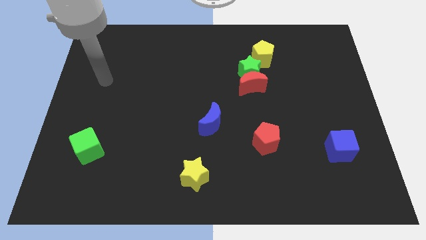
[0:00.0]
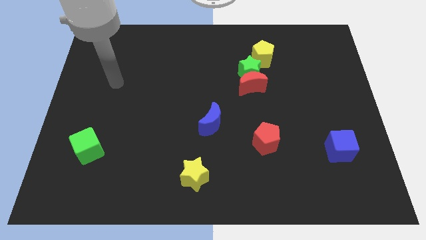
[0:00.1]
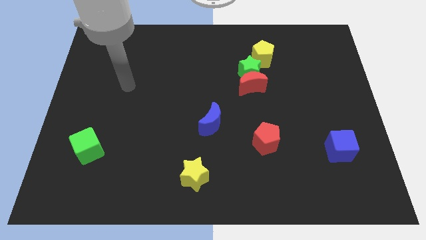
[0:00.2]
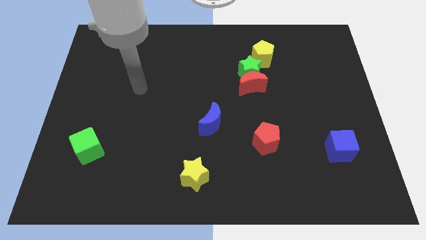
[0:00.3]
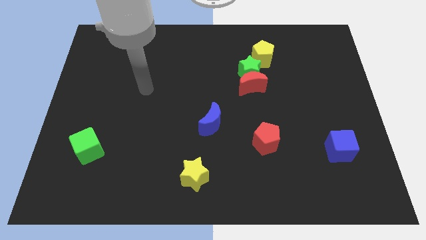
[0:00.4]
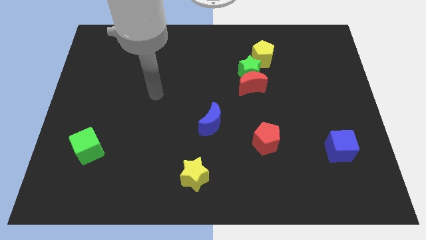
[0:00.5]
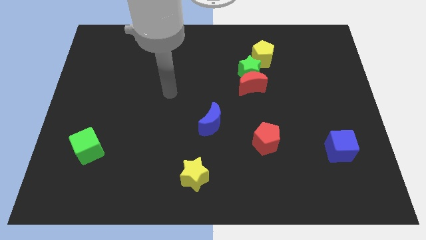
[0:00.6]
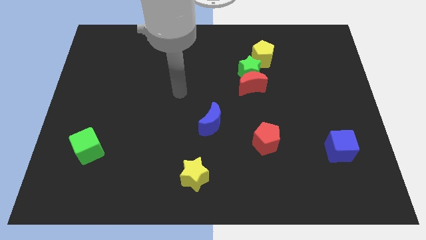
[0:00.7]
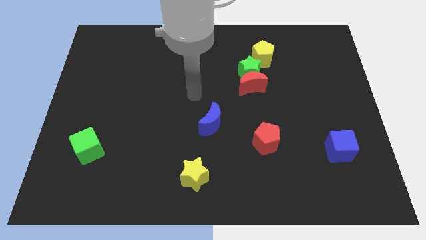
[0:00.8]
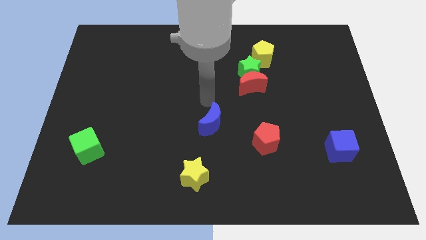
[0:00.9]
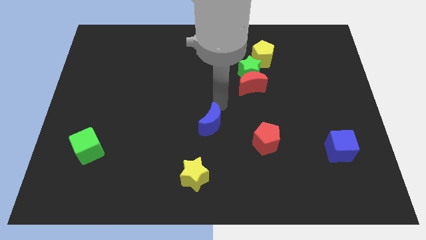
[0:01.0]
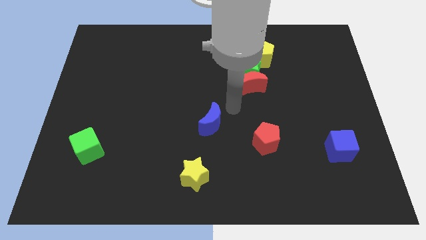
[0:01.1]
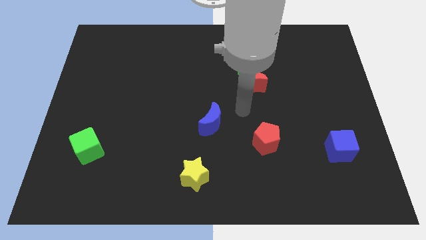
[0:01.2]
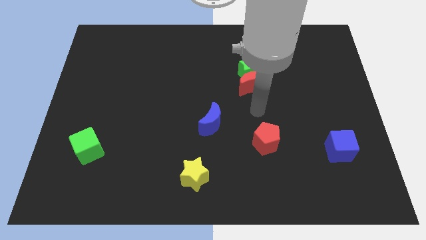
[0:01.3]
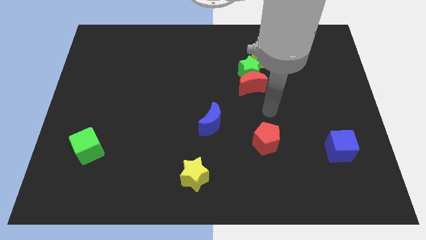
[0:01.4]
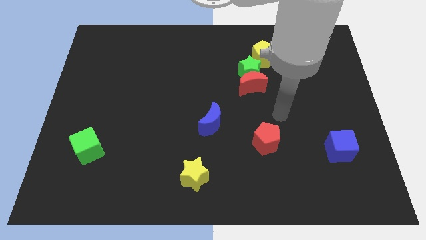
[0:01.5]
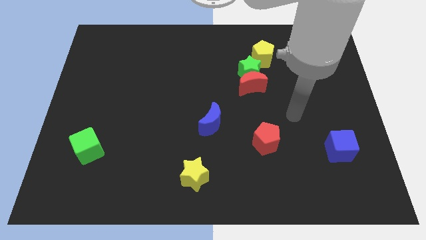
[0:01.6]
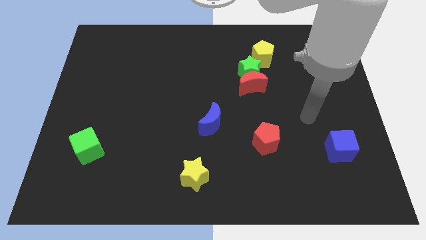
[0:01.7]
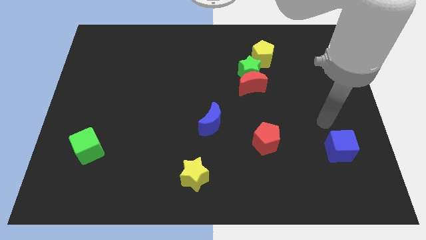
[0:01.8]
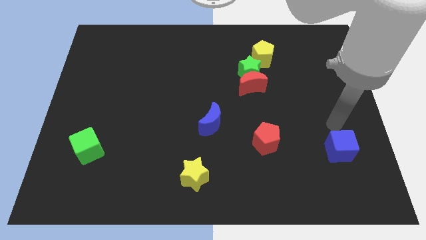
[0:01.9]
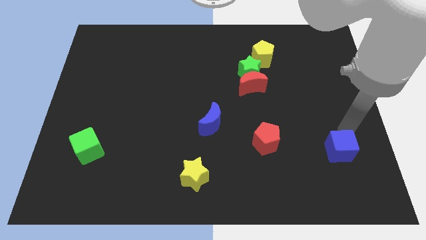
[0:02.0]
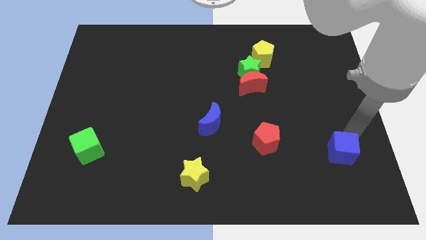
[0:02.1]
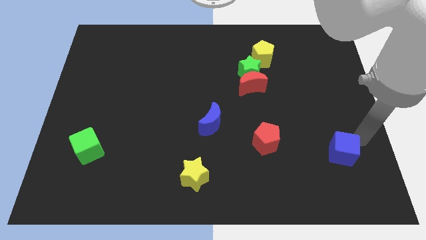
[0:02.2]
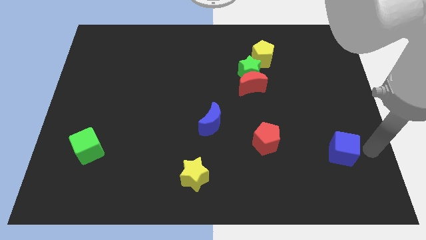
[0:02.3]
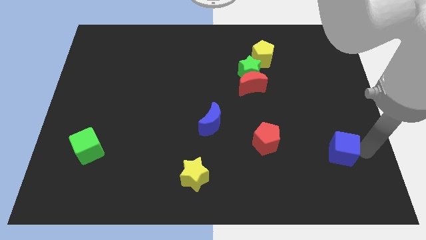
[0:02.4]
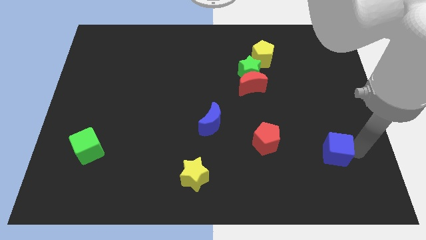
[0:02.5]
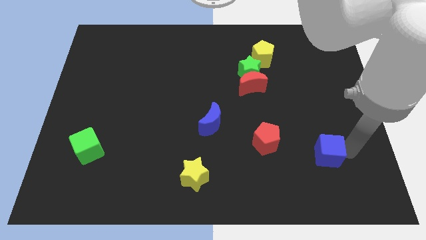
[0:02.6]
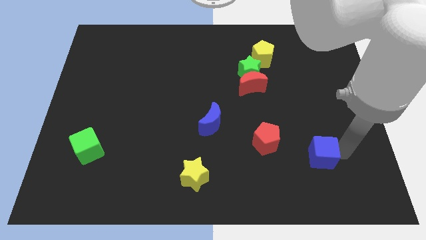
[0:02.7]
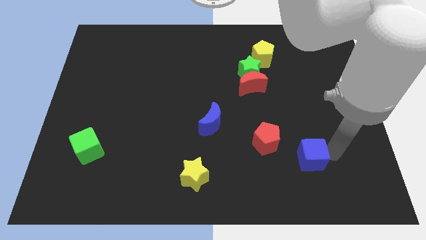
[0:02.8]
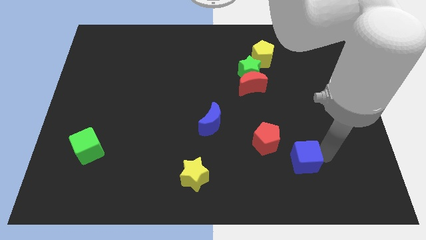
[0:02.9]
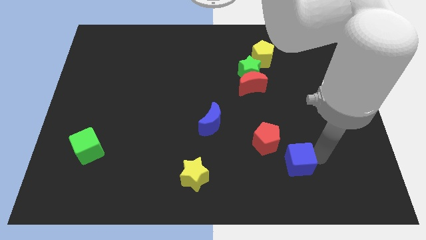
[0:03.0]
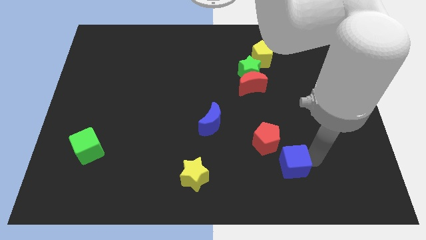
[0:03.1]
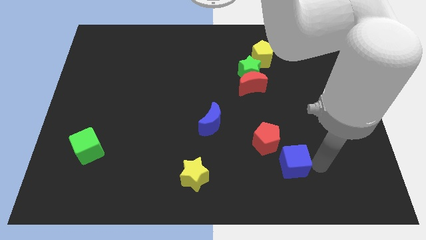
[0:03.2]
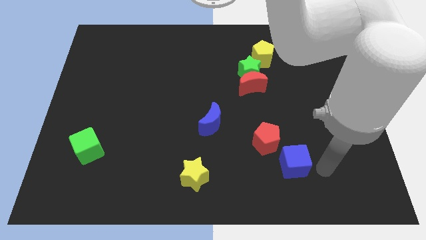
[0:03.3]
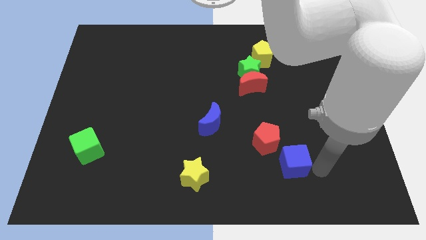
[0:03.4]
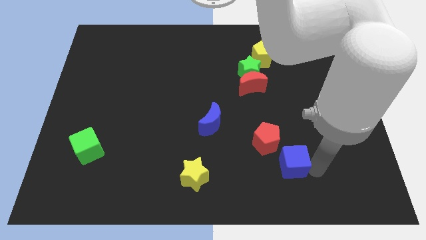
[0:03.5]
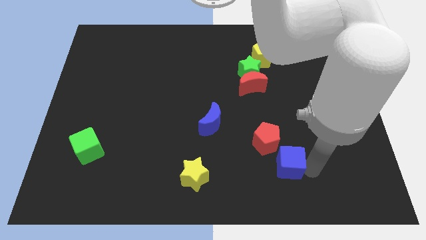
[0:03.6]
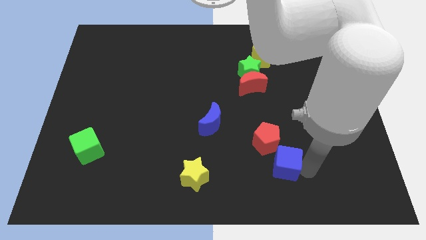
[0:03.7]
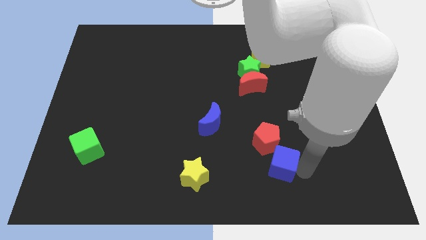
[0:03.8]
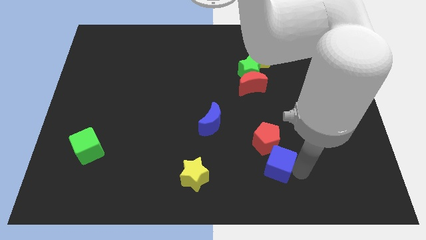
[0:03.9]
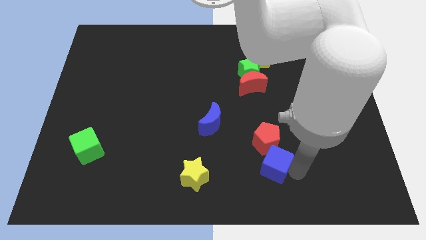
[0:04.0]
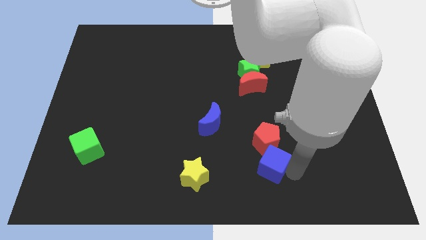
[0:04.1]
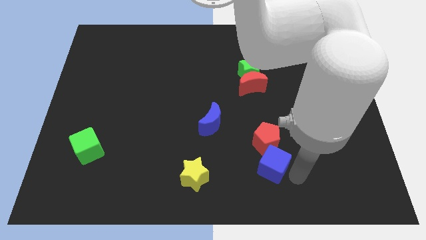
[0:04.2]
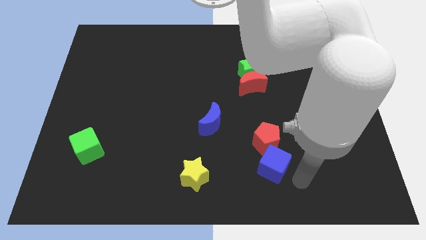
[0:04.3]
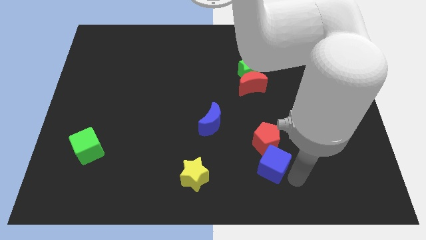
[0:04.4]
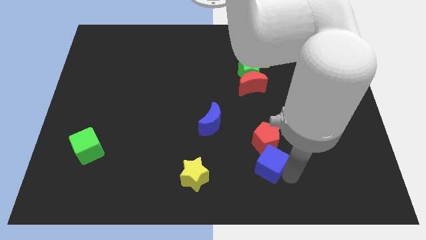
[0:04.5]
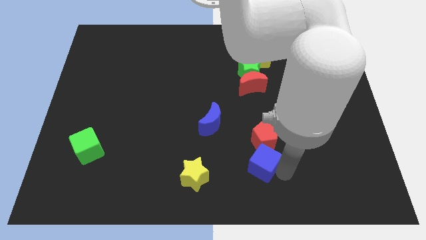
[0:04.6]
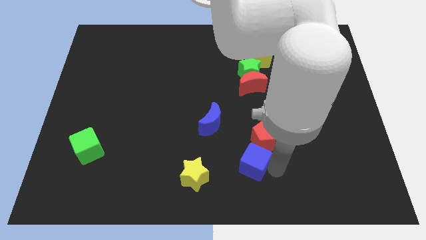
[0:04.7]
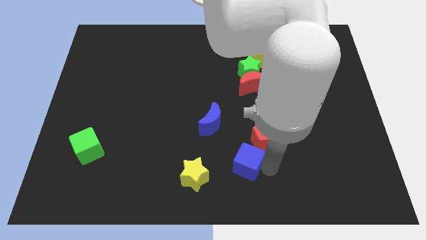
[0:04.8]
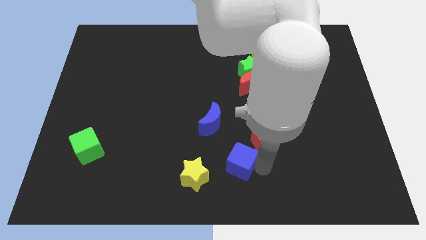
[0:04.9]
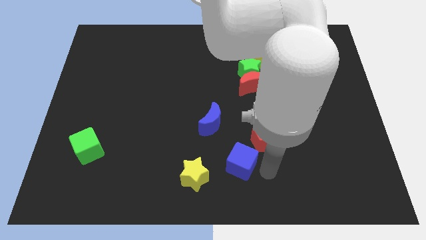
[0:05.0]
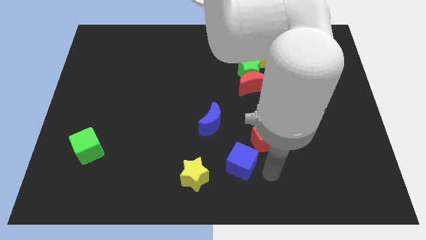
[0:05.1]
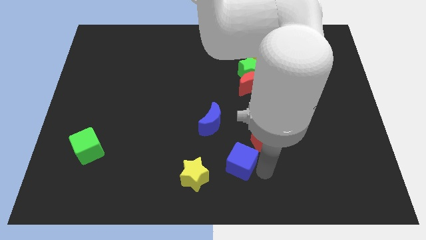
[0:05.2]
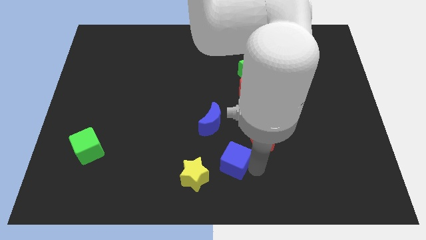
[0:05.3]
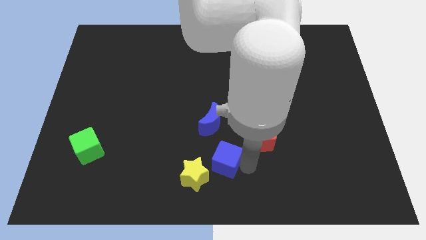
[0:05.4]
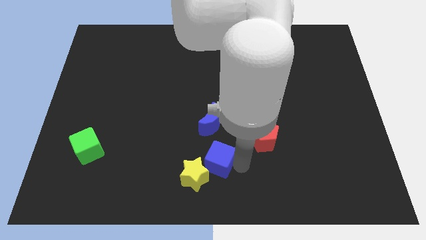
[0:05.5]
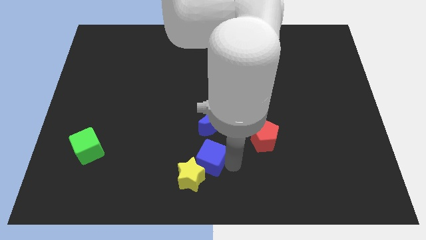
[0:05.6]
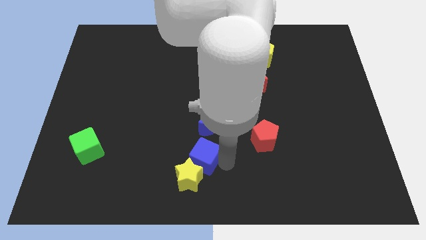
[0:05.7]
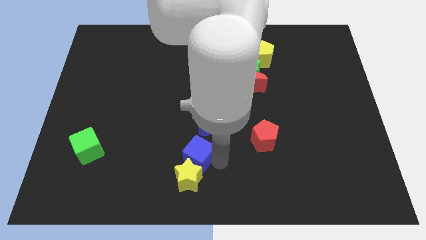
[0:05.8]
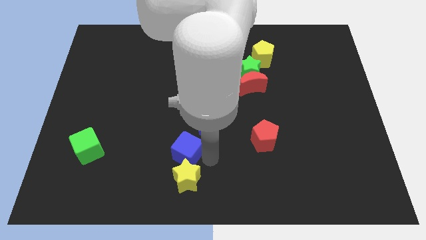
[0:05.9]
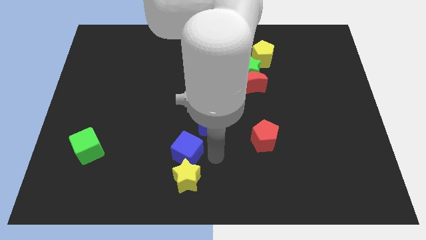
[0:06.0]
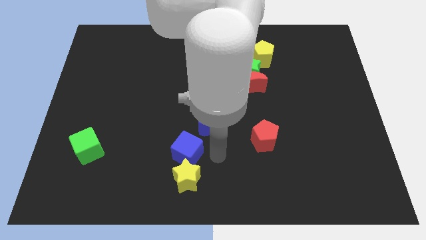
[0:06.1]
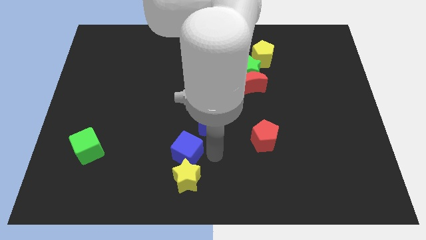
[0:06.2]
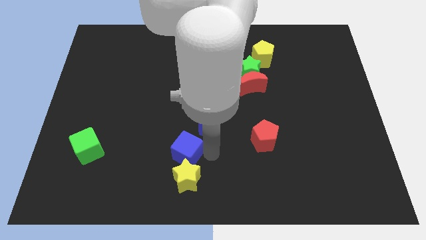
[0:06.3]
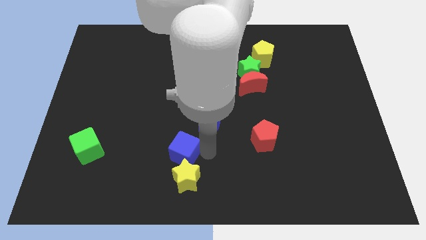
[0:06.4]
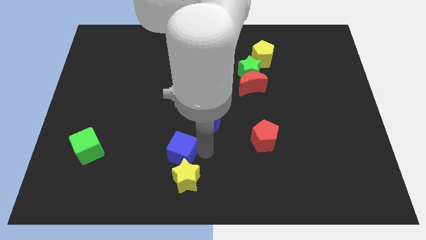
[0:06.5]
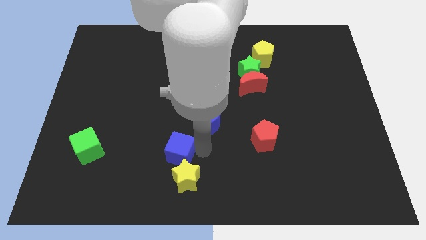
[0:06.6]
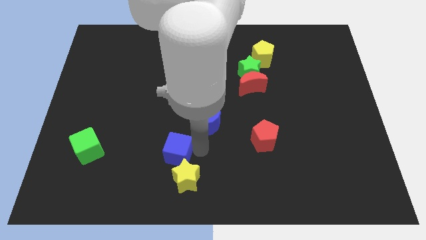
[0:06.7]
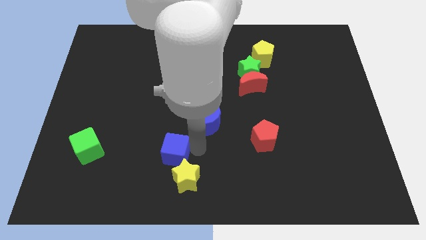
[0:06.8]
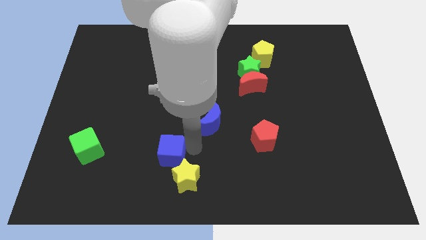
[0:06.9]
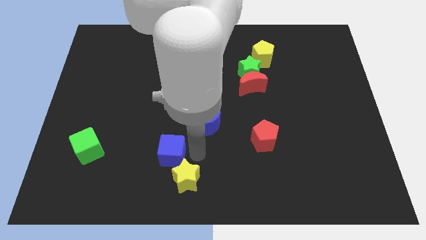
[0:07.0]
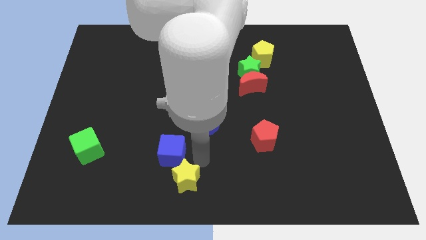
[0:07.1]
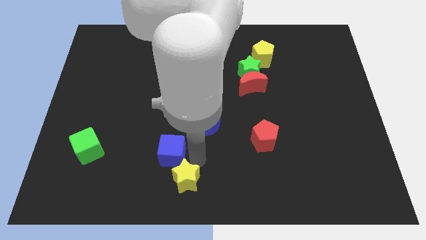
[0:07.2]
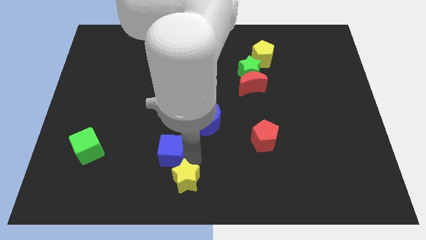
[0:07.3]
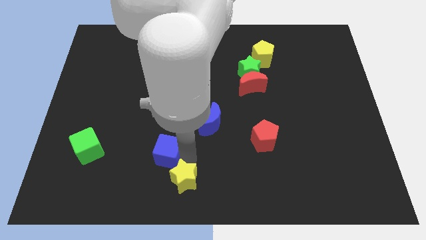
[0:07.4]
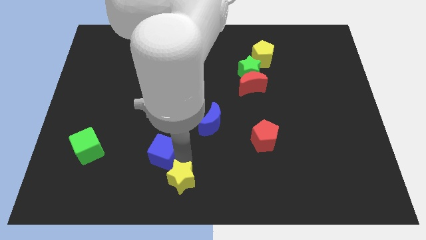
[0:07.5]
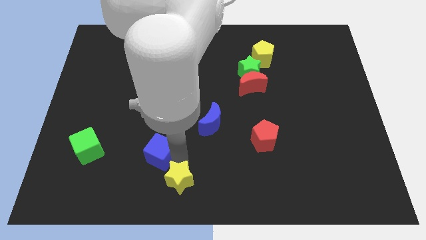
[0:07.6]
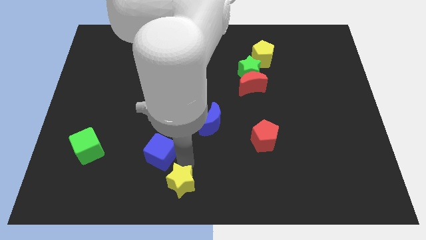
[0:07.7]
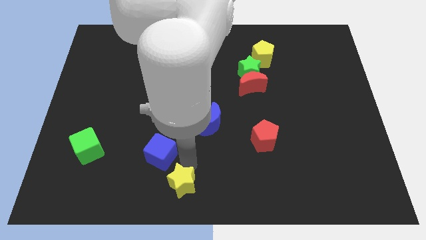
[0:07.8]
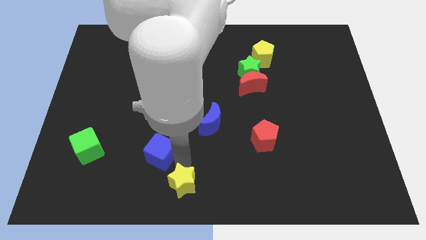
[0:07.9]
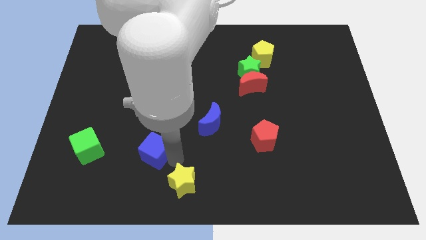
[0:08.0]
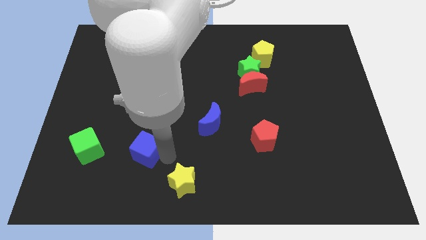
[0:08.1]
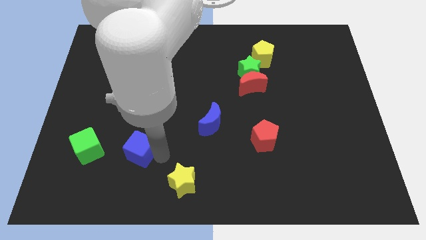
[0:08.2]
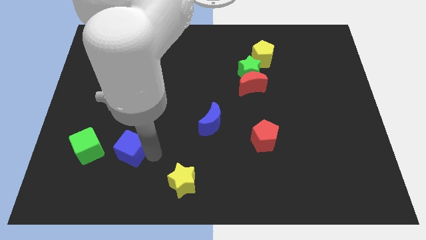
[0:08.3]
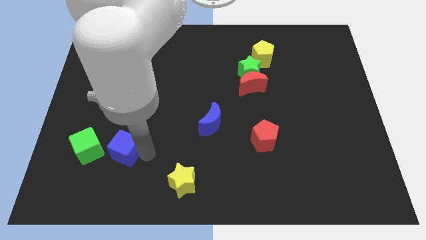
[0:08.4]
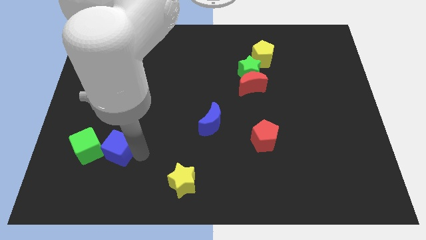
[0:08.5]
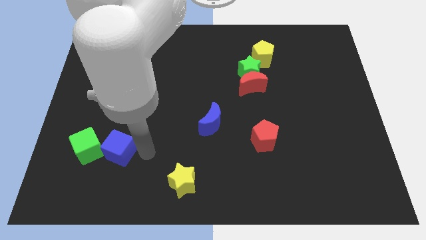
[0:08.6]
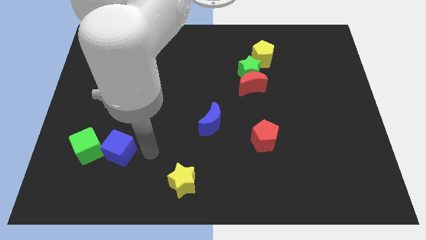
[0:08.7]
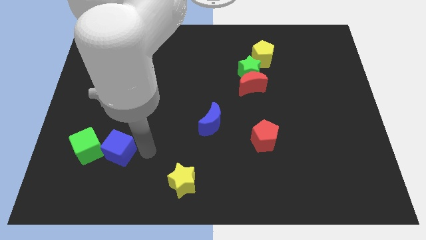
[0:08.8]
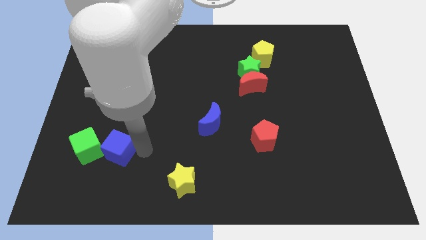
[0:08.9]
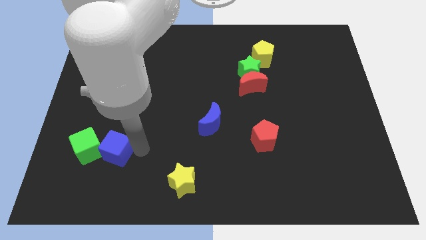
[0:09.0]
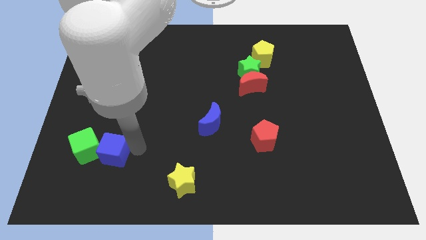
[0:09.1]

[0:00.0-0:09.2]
move the blue cube to the green cube
